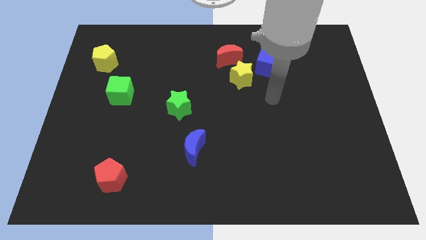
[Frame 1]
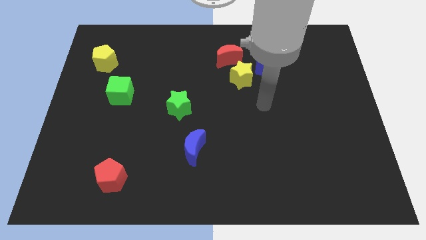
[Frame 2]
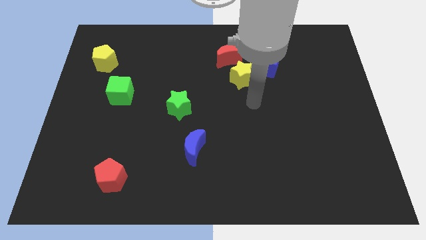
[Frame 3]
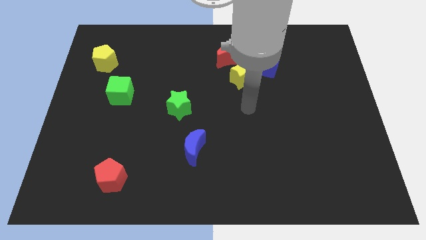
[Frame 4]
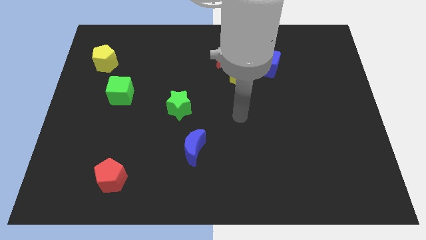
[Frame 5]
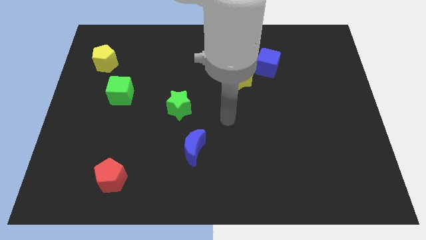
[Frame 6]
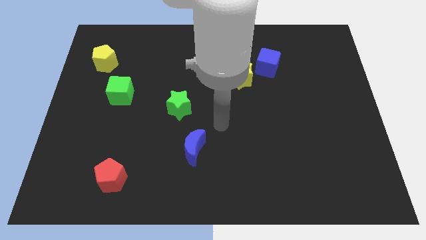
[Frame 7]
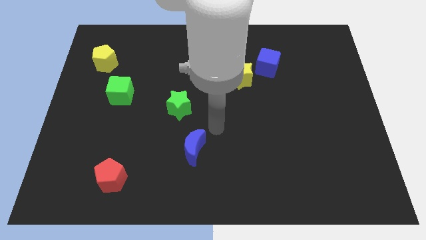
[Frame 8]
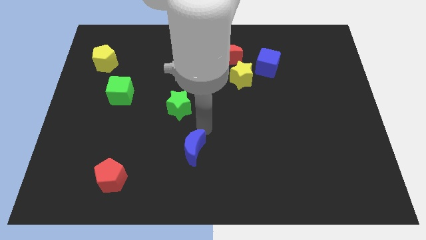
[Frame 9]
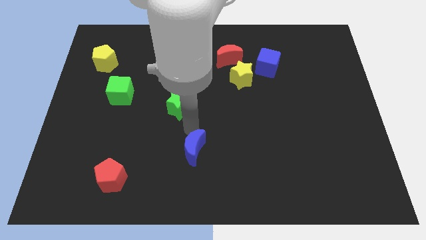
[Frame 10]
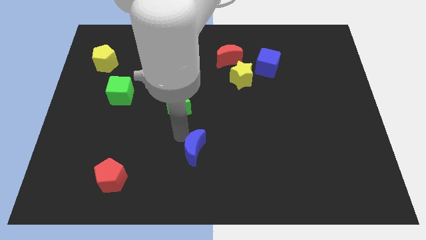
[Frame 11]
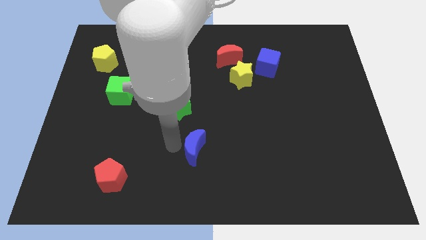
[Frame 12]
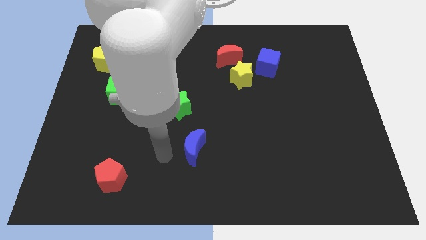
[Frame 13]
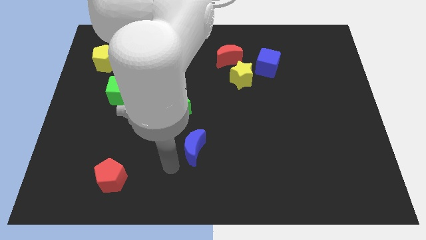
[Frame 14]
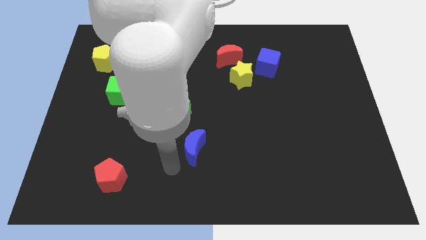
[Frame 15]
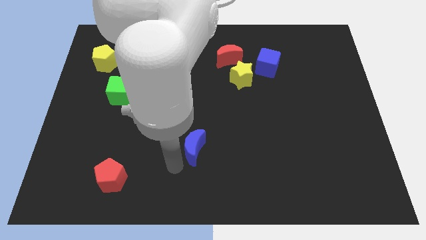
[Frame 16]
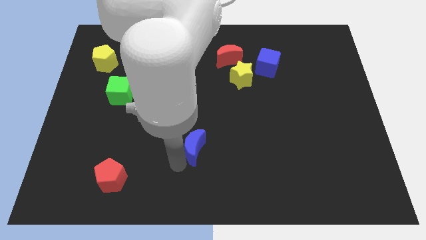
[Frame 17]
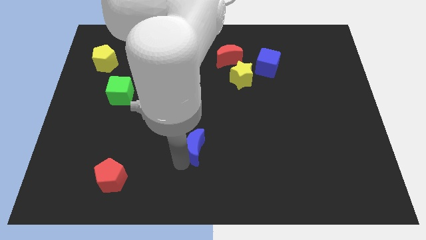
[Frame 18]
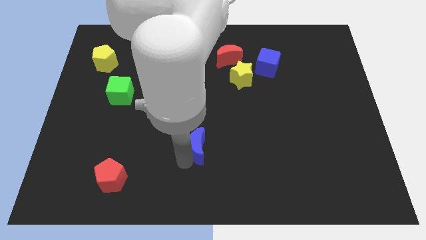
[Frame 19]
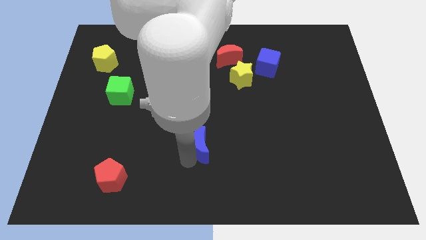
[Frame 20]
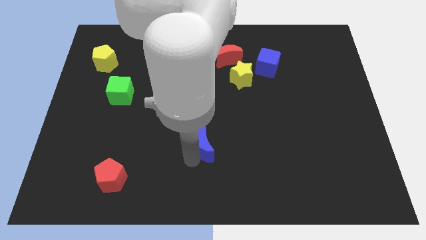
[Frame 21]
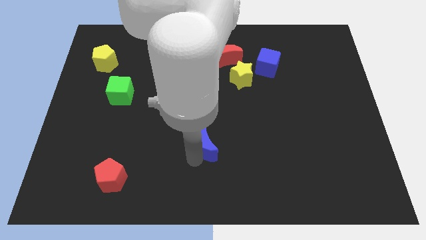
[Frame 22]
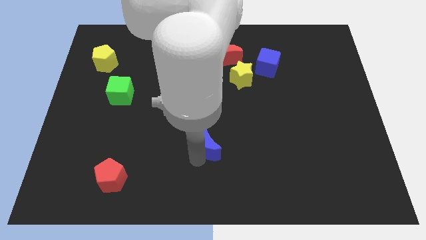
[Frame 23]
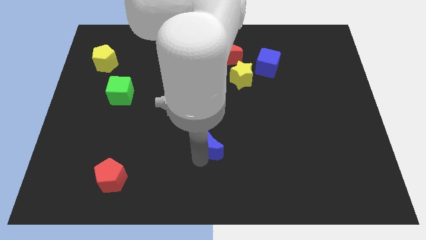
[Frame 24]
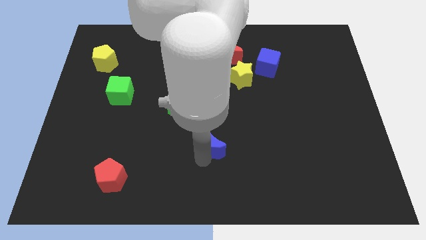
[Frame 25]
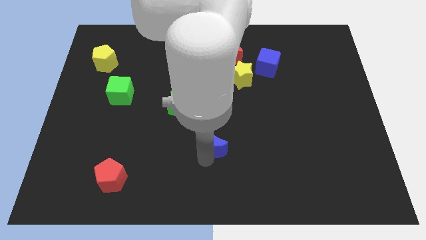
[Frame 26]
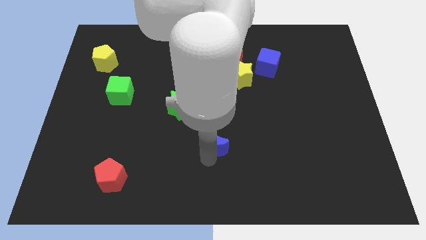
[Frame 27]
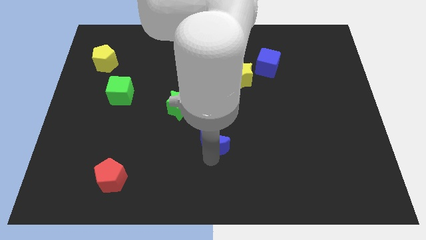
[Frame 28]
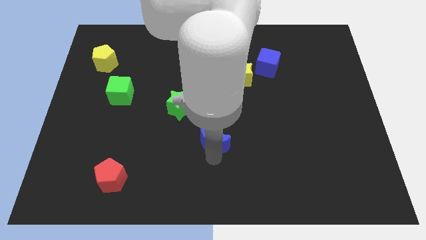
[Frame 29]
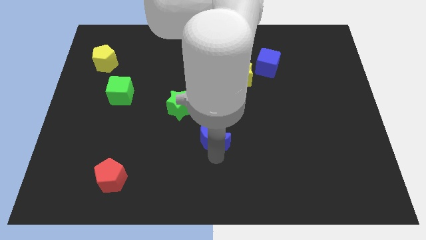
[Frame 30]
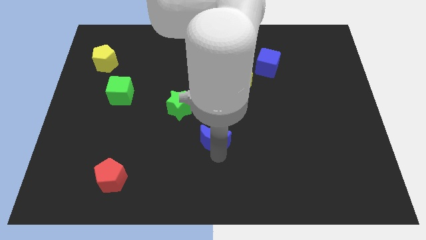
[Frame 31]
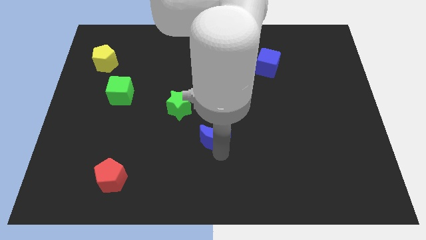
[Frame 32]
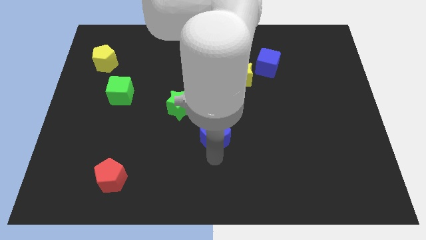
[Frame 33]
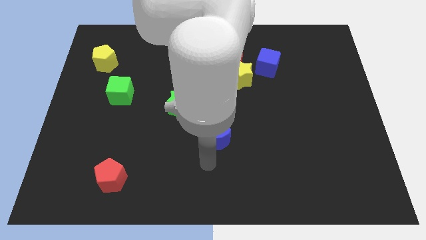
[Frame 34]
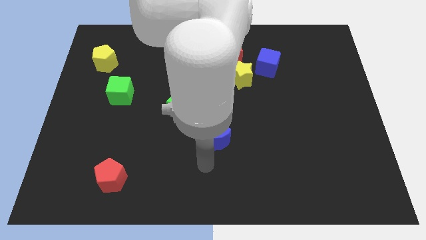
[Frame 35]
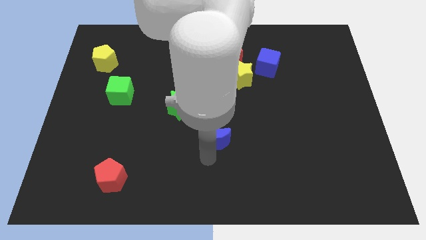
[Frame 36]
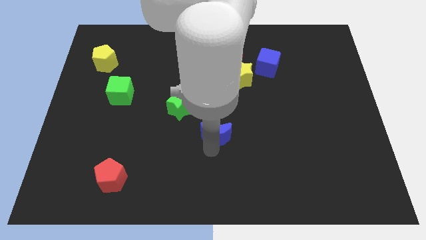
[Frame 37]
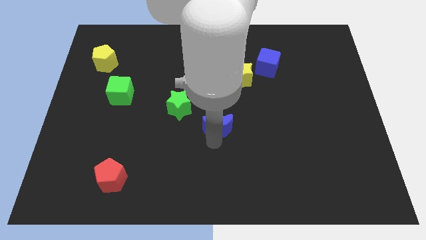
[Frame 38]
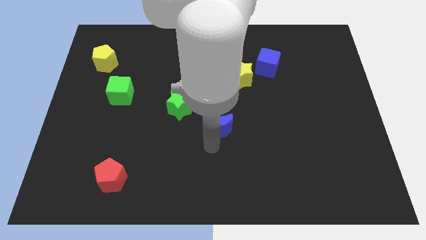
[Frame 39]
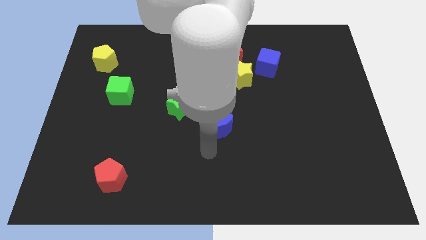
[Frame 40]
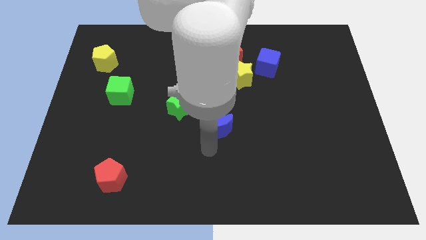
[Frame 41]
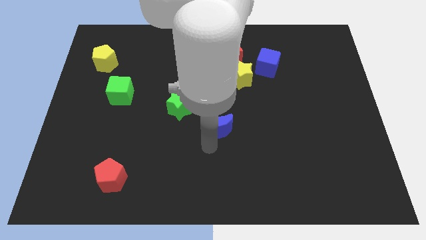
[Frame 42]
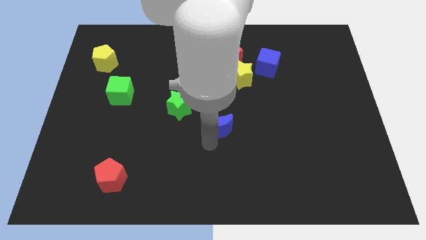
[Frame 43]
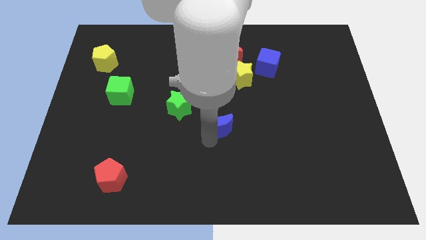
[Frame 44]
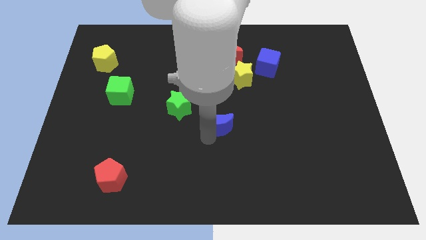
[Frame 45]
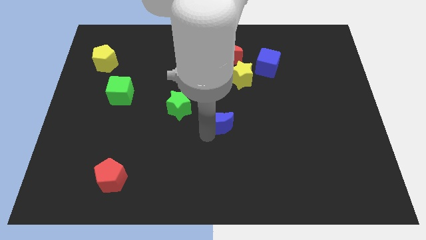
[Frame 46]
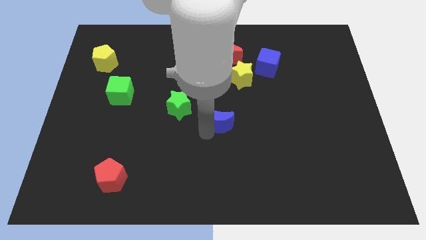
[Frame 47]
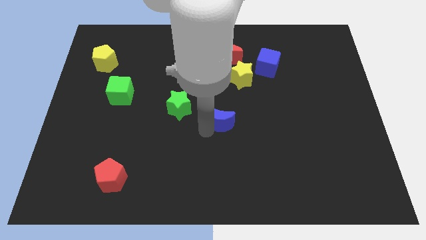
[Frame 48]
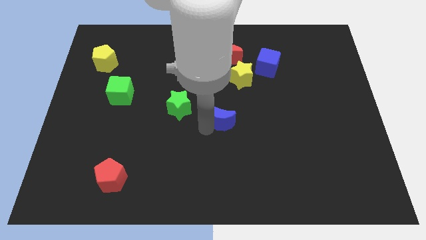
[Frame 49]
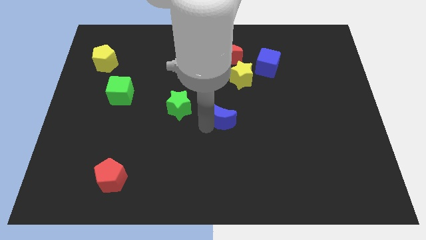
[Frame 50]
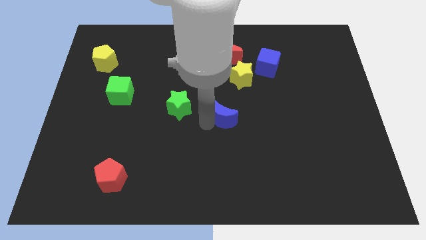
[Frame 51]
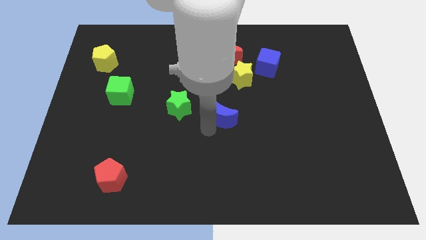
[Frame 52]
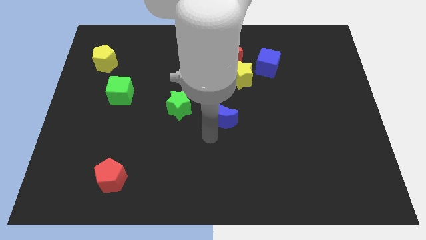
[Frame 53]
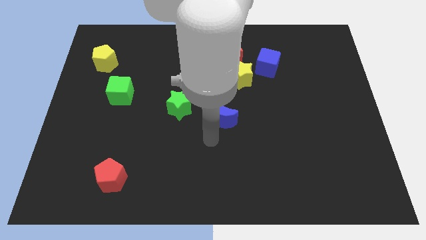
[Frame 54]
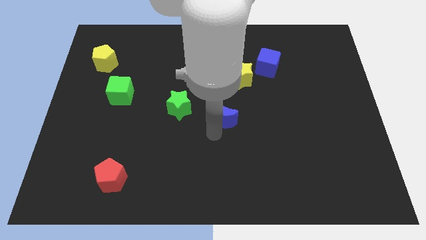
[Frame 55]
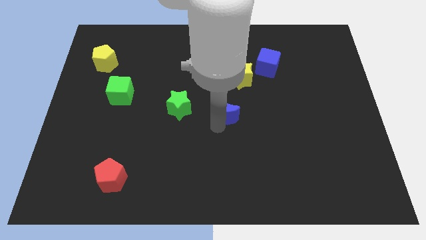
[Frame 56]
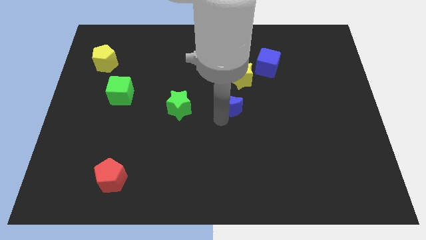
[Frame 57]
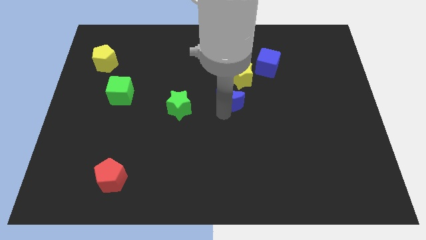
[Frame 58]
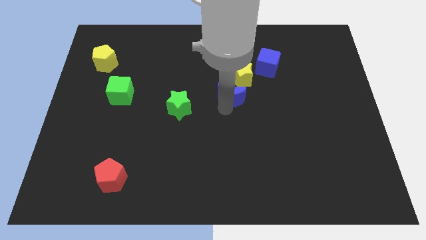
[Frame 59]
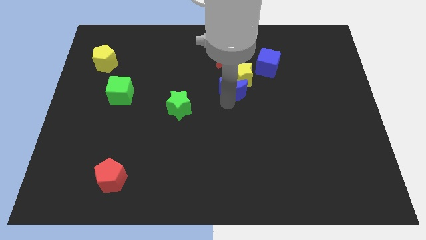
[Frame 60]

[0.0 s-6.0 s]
push the blue moon to the yellow star

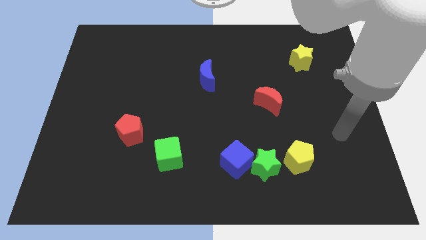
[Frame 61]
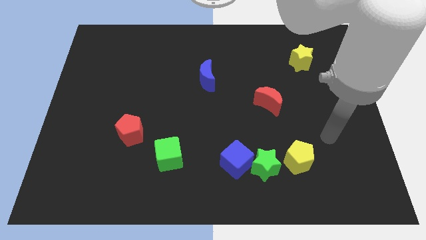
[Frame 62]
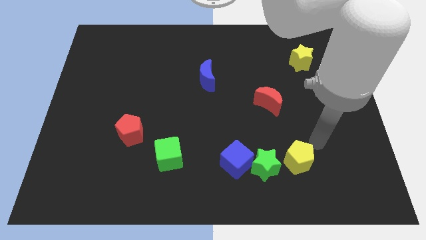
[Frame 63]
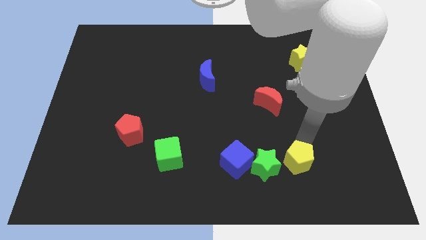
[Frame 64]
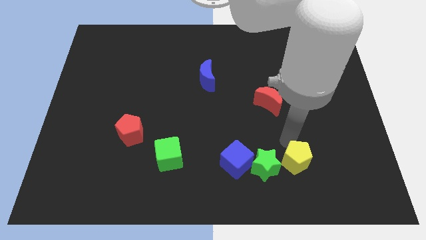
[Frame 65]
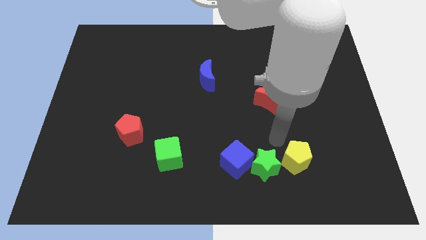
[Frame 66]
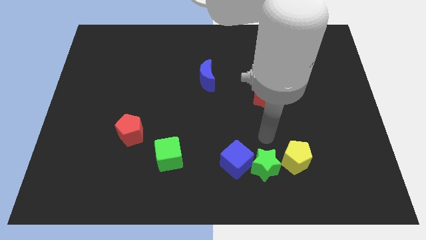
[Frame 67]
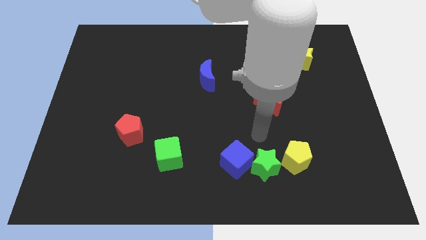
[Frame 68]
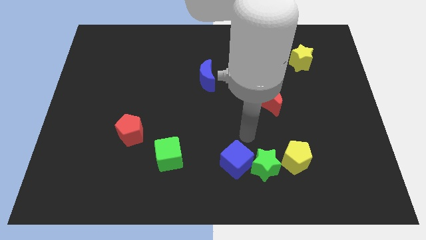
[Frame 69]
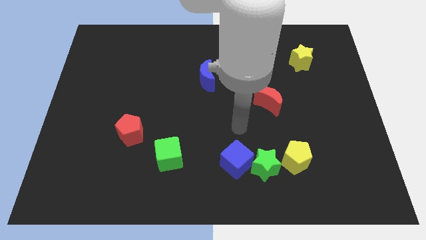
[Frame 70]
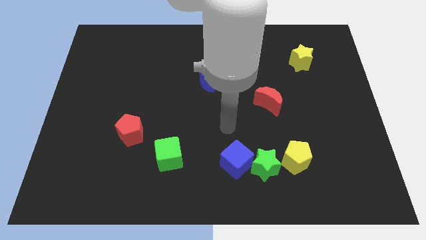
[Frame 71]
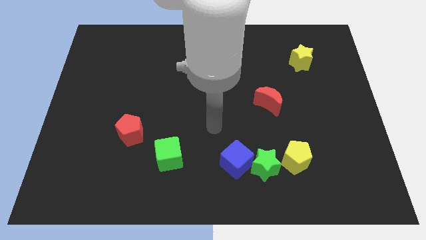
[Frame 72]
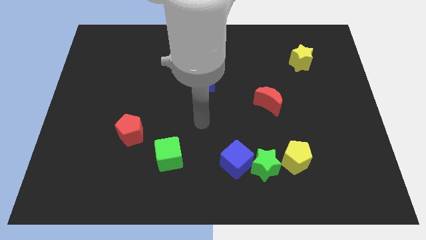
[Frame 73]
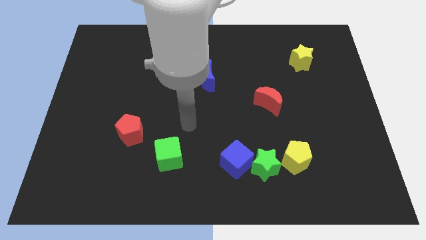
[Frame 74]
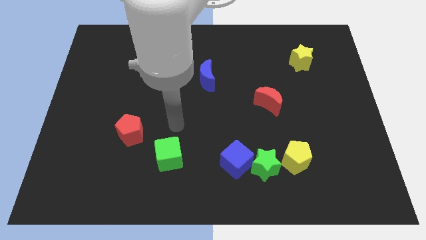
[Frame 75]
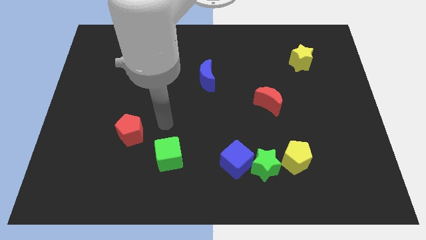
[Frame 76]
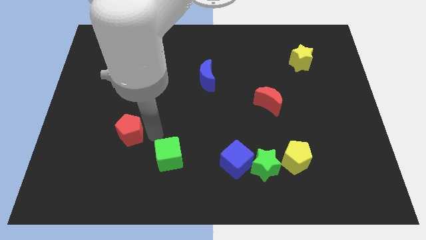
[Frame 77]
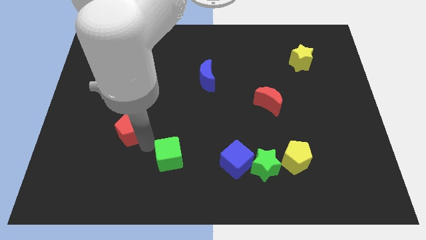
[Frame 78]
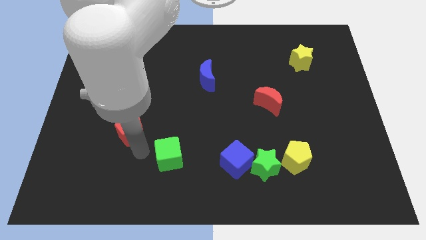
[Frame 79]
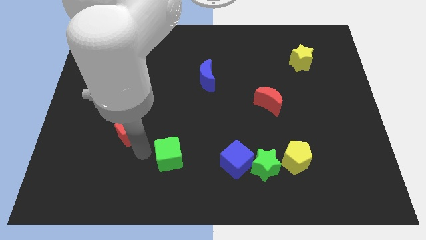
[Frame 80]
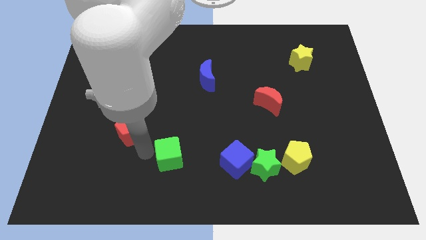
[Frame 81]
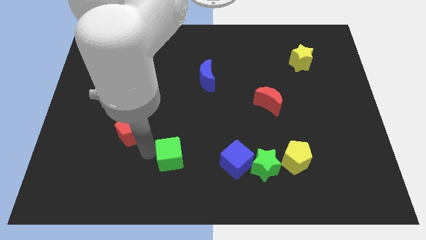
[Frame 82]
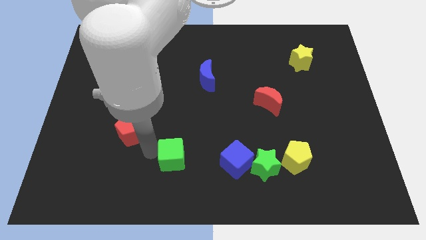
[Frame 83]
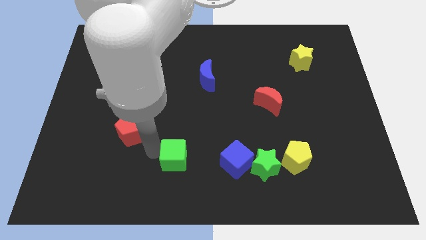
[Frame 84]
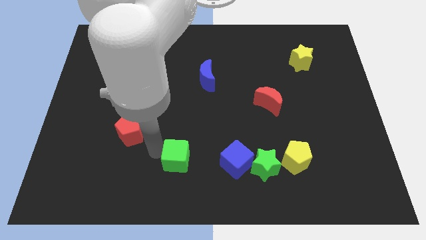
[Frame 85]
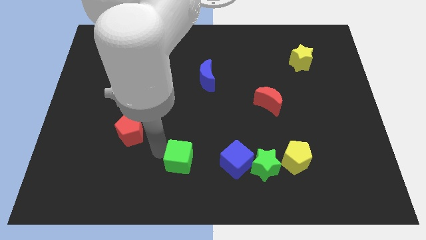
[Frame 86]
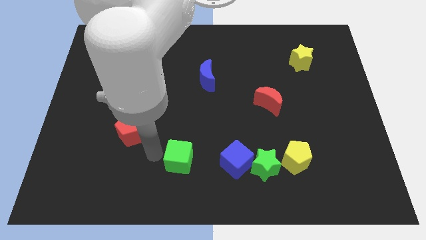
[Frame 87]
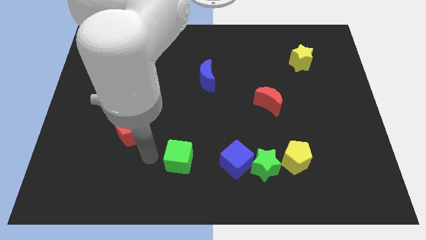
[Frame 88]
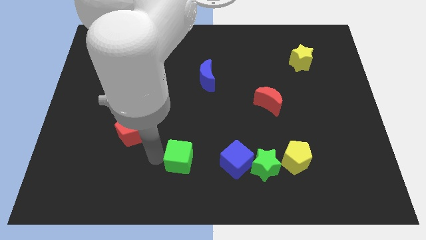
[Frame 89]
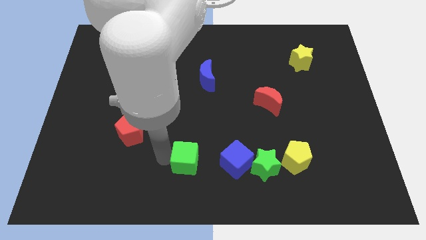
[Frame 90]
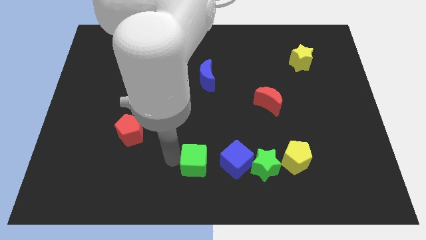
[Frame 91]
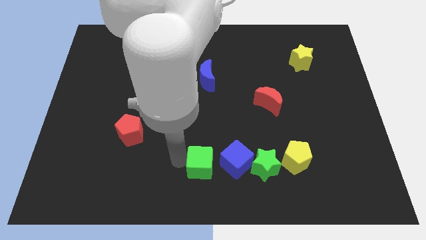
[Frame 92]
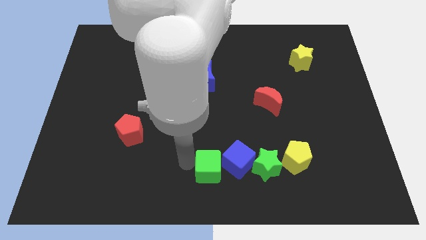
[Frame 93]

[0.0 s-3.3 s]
slide the green cube close to the blue cube
